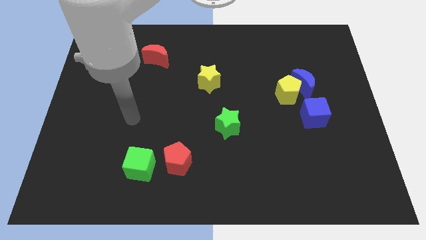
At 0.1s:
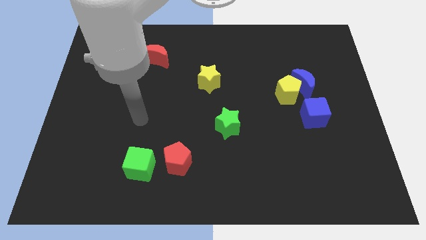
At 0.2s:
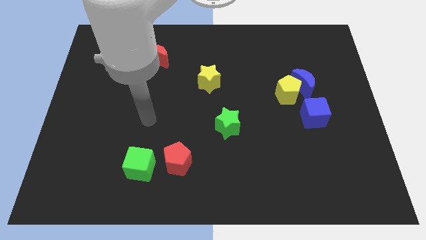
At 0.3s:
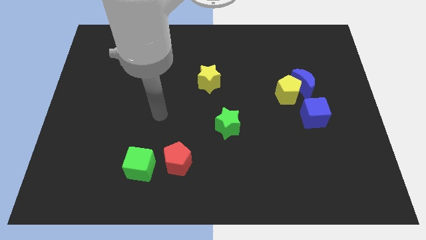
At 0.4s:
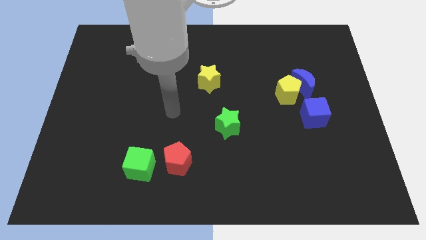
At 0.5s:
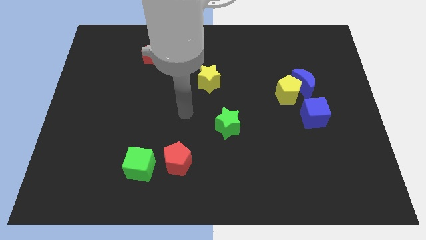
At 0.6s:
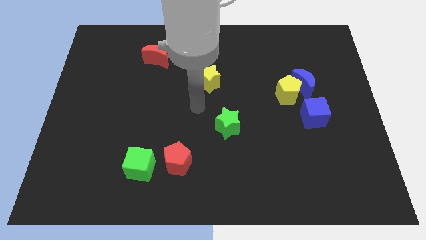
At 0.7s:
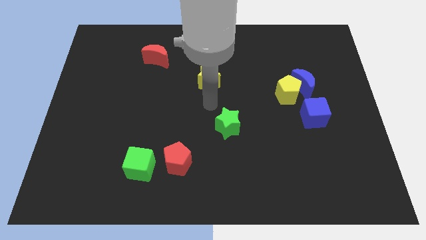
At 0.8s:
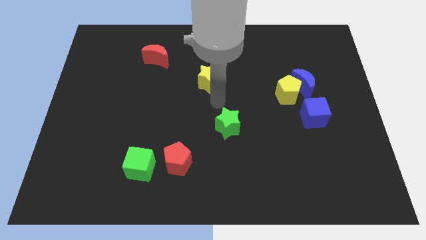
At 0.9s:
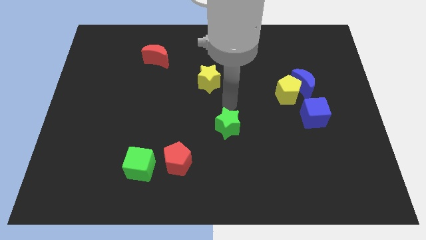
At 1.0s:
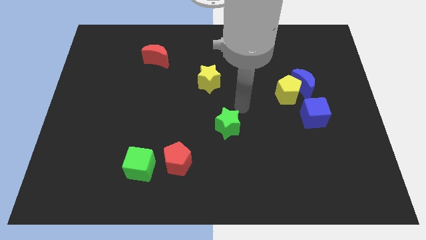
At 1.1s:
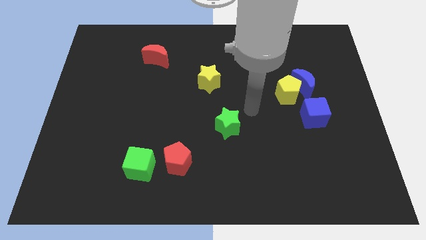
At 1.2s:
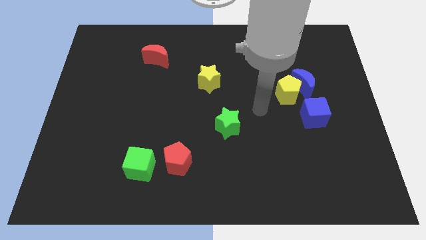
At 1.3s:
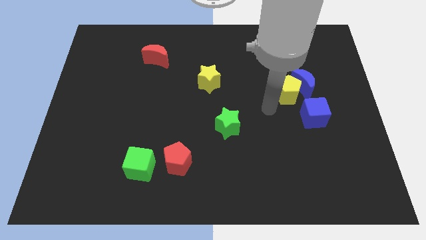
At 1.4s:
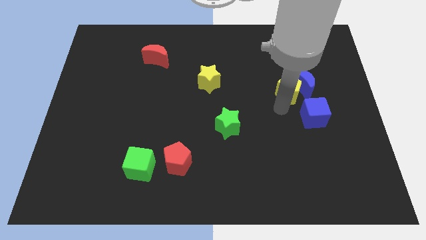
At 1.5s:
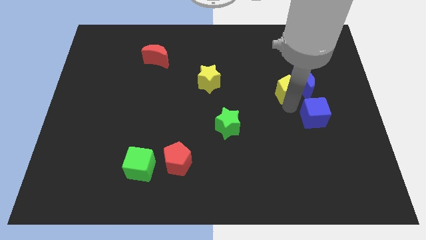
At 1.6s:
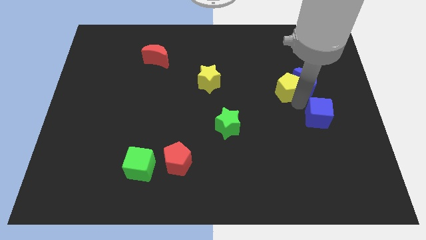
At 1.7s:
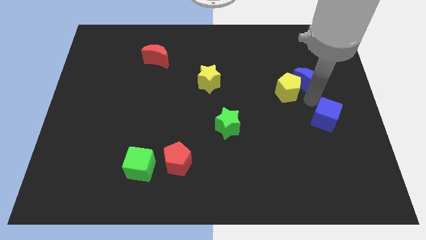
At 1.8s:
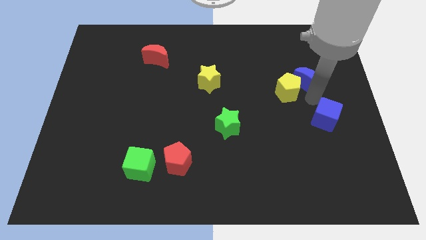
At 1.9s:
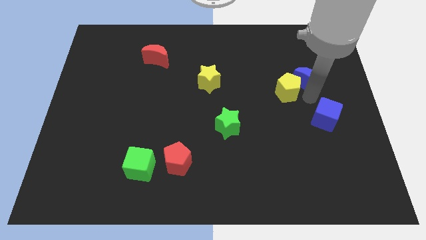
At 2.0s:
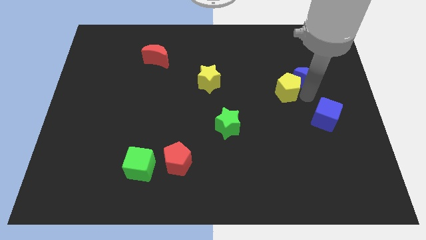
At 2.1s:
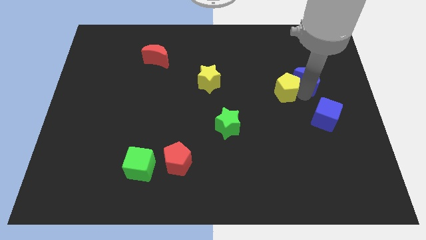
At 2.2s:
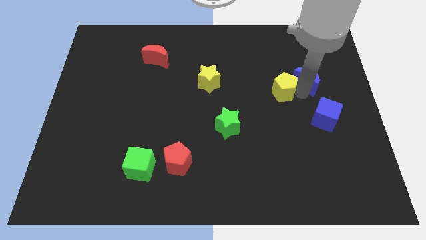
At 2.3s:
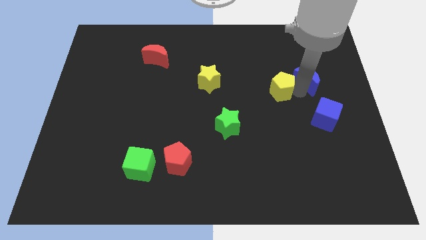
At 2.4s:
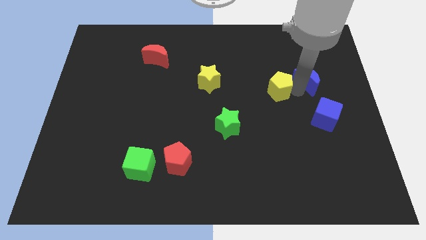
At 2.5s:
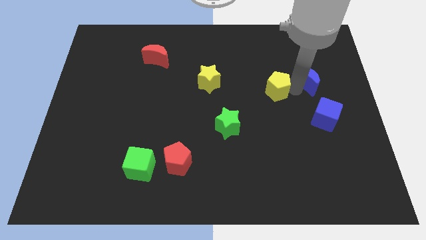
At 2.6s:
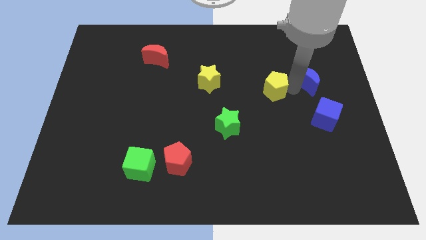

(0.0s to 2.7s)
move the yellow pentagon away from the blue moon and blue cube

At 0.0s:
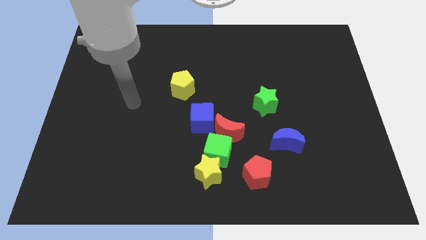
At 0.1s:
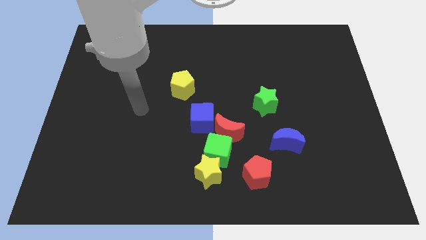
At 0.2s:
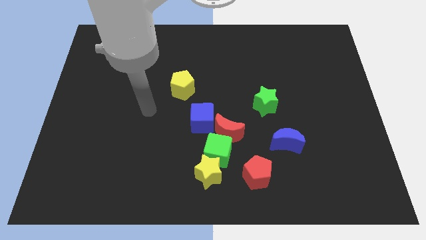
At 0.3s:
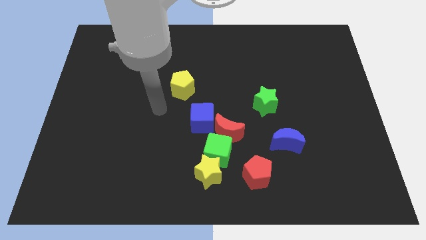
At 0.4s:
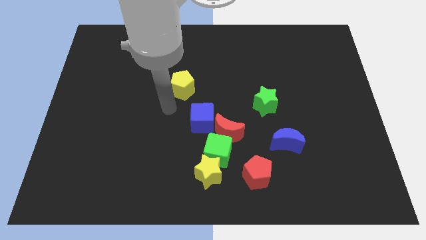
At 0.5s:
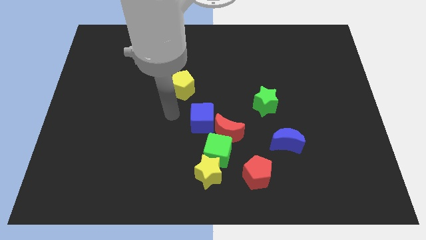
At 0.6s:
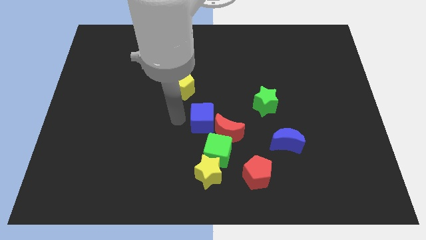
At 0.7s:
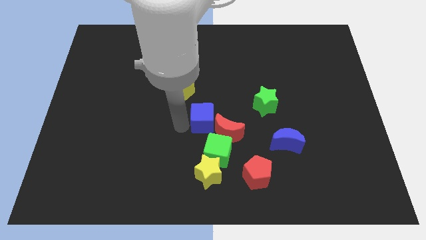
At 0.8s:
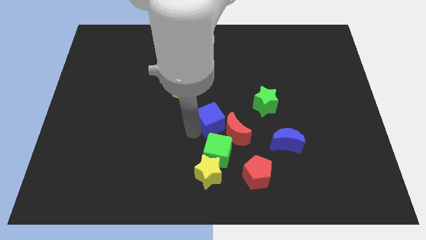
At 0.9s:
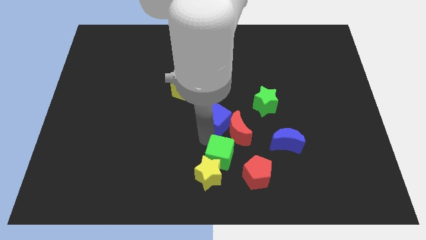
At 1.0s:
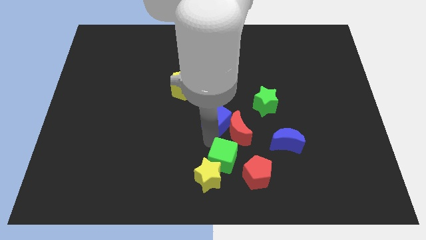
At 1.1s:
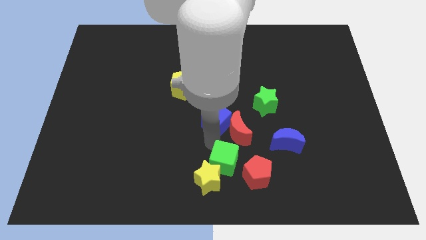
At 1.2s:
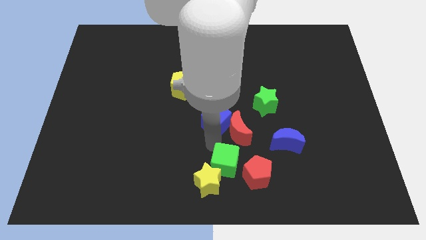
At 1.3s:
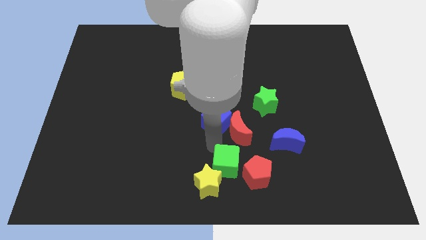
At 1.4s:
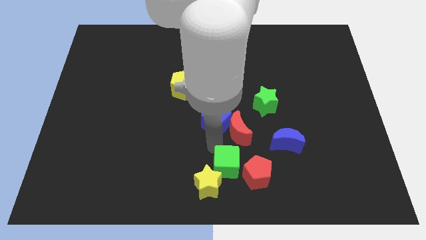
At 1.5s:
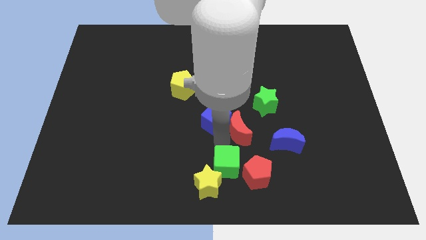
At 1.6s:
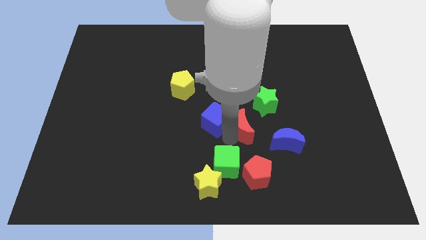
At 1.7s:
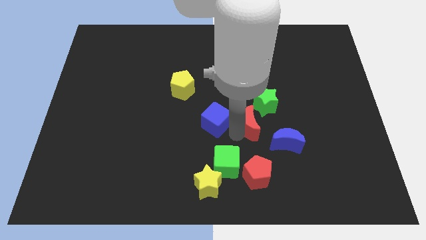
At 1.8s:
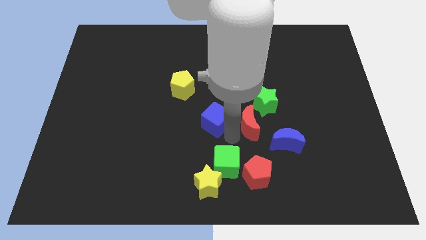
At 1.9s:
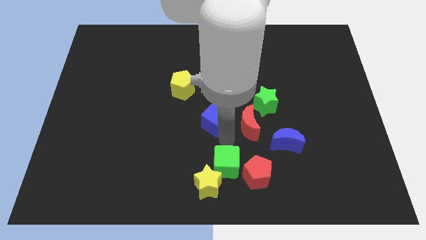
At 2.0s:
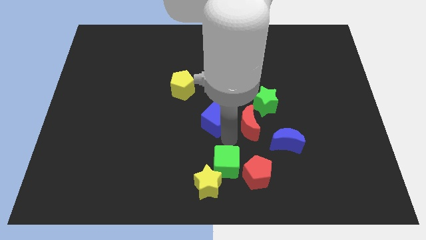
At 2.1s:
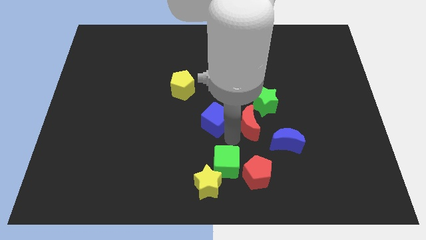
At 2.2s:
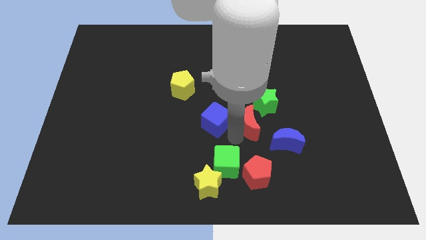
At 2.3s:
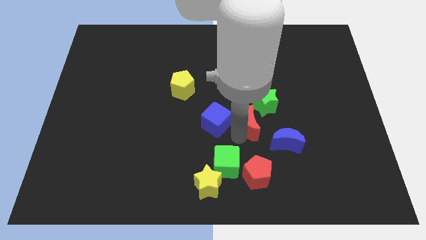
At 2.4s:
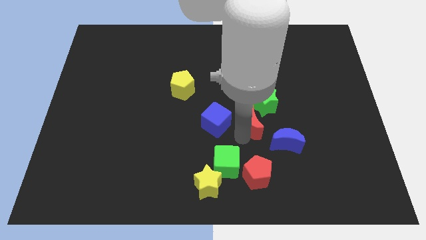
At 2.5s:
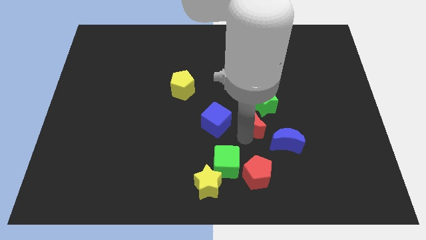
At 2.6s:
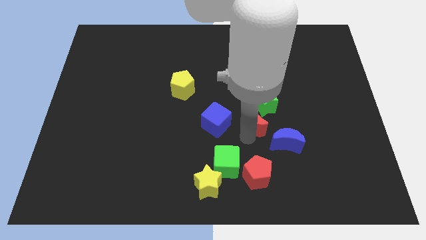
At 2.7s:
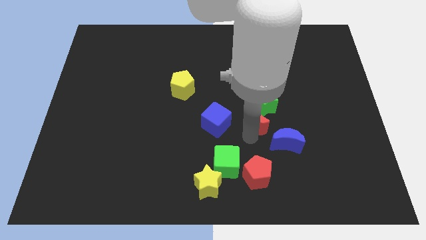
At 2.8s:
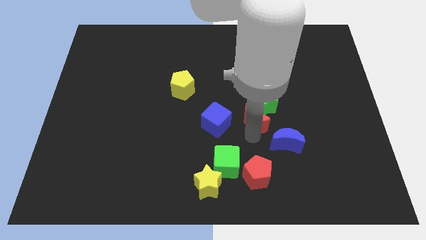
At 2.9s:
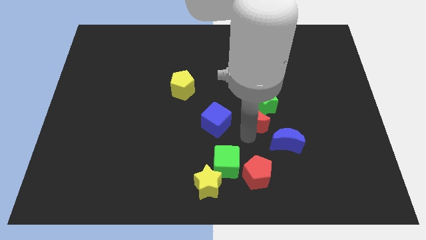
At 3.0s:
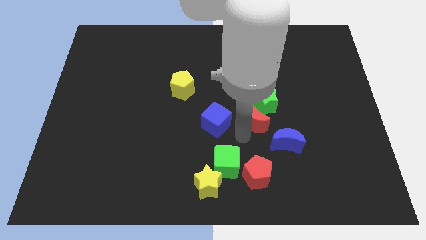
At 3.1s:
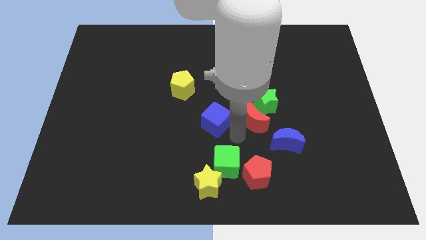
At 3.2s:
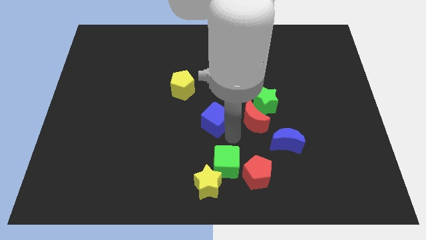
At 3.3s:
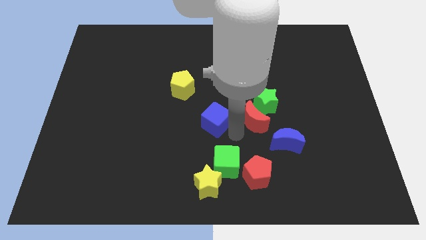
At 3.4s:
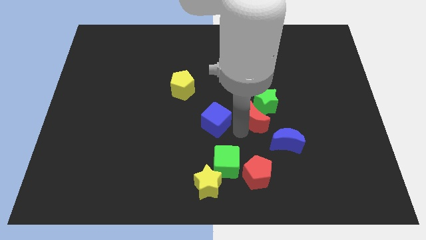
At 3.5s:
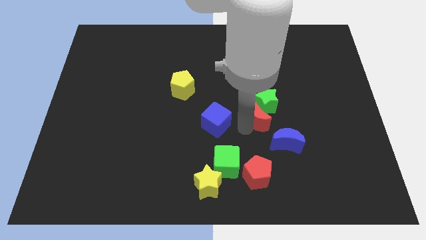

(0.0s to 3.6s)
separate the red moon from the green cube and blue cube

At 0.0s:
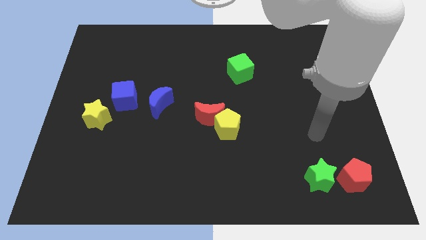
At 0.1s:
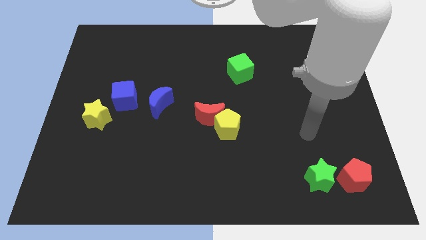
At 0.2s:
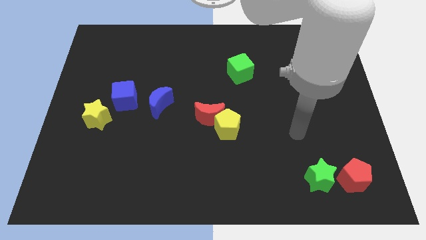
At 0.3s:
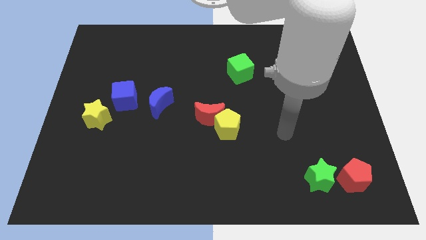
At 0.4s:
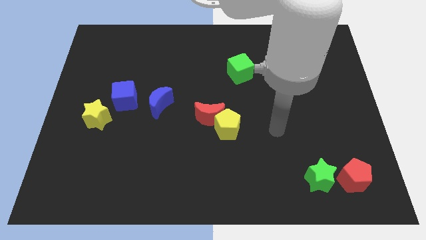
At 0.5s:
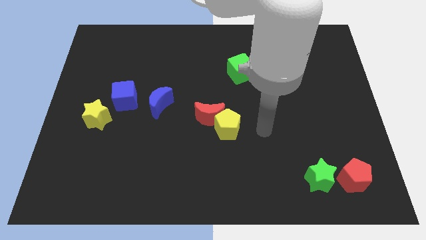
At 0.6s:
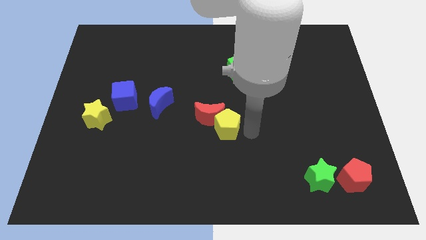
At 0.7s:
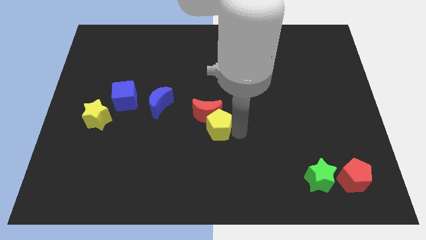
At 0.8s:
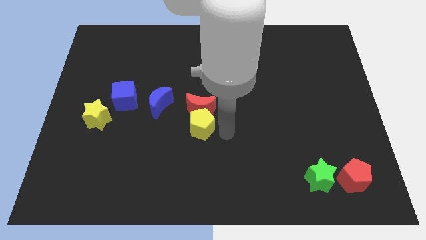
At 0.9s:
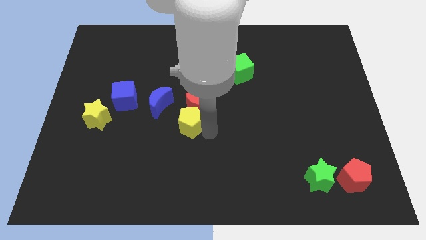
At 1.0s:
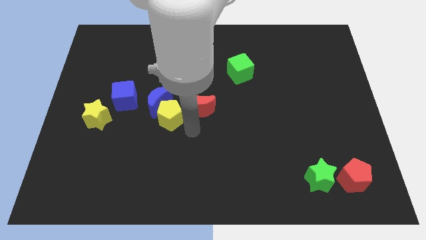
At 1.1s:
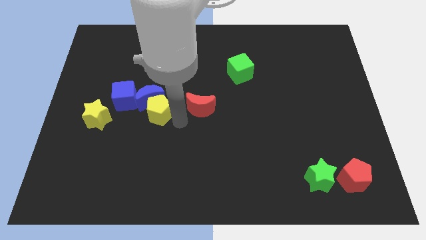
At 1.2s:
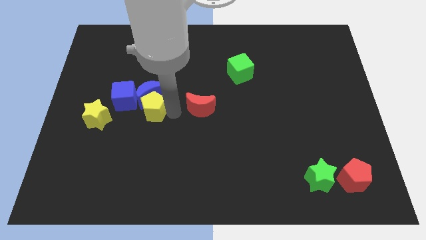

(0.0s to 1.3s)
pull the red moon apart from the yellow pentagon

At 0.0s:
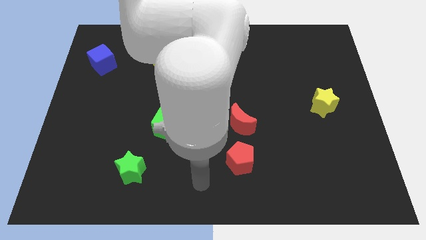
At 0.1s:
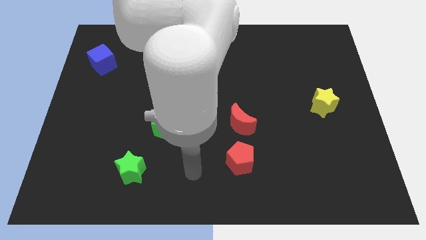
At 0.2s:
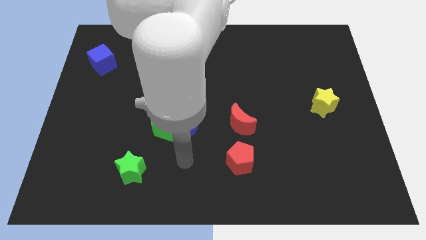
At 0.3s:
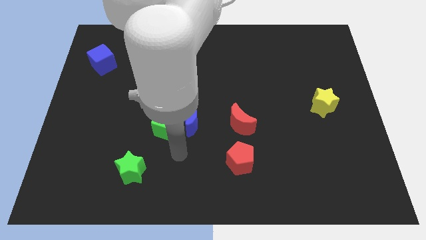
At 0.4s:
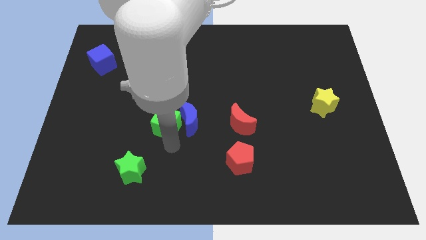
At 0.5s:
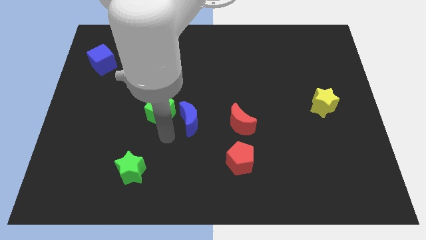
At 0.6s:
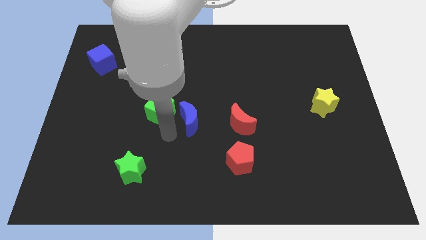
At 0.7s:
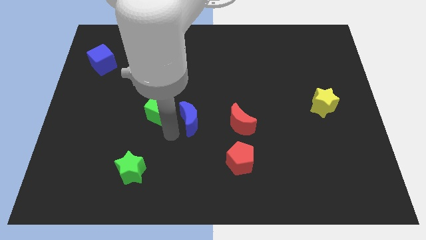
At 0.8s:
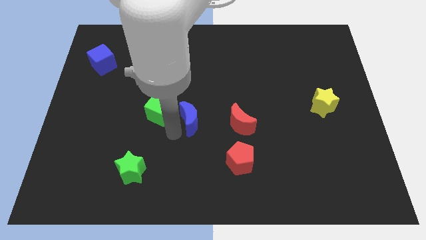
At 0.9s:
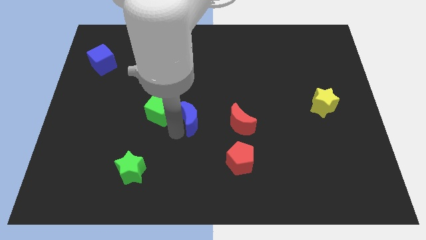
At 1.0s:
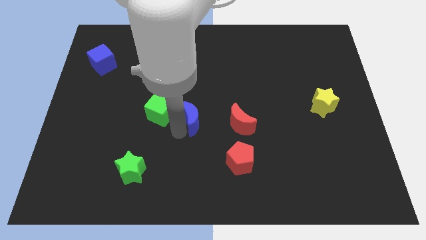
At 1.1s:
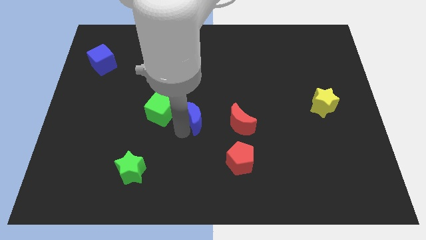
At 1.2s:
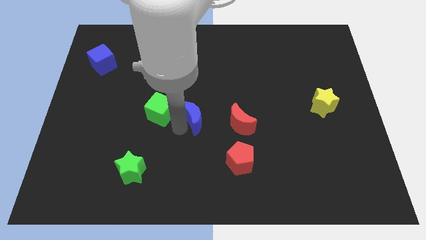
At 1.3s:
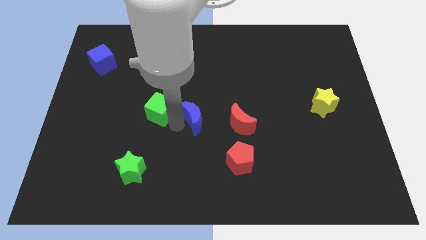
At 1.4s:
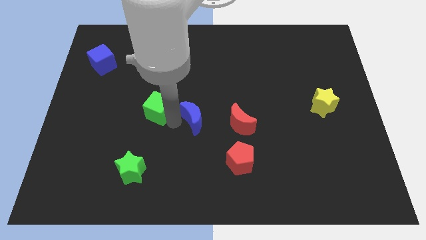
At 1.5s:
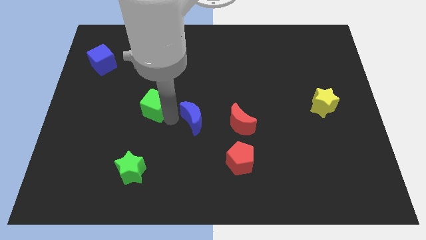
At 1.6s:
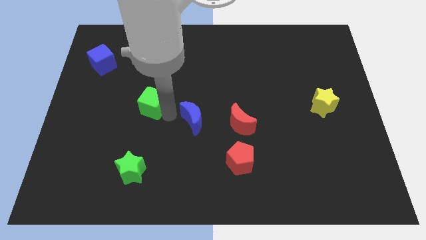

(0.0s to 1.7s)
separate the blue moon from the green cube
